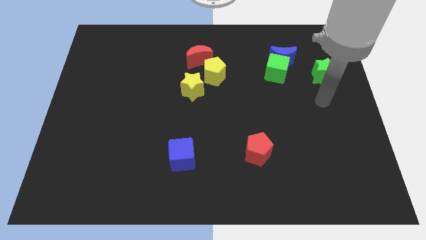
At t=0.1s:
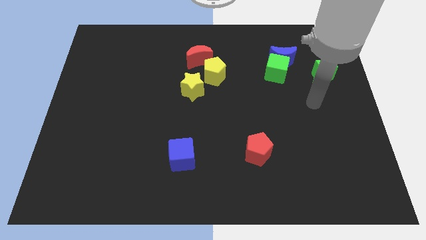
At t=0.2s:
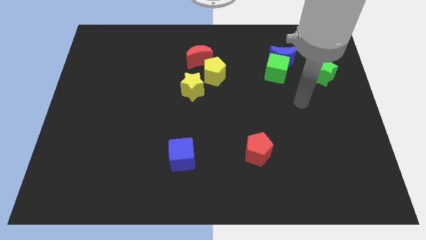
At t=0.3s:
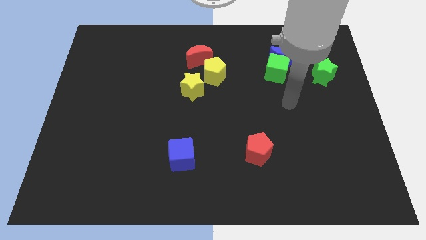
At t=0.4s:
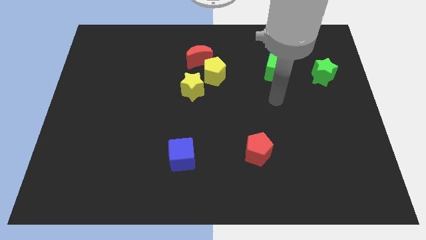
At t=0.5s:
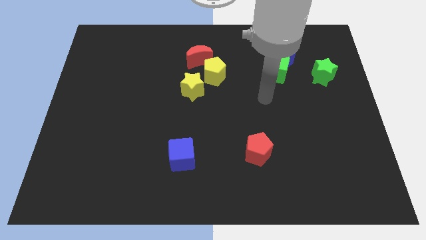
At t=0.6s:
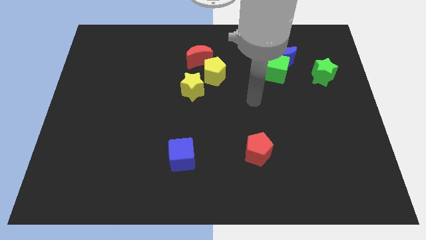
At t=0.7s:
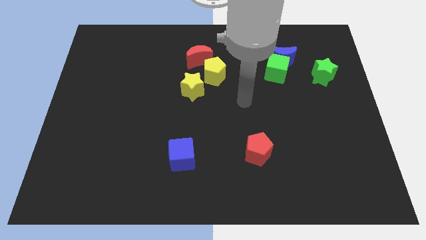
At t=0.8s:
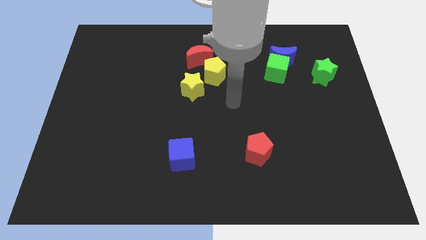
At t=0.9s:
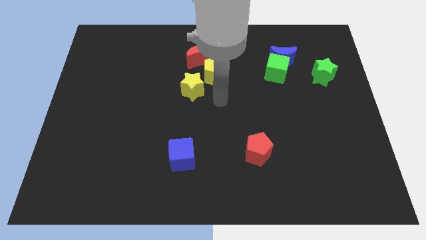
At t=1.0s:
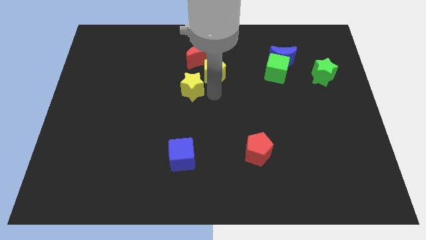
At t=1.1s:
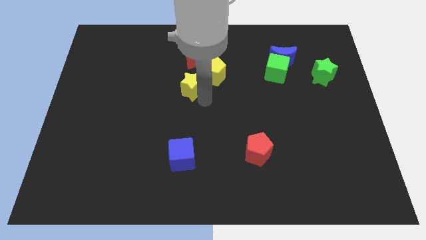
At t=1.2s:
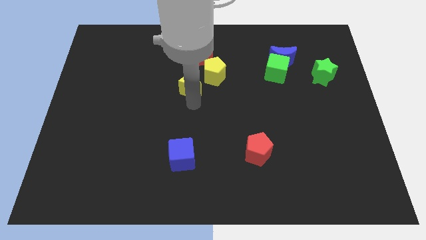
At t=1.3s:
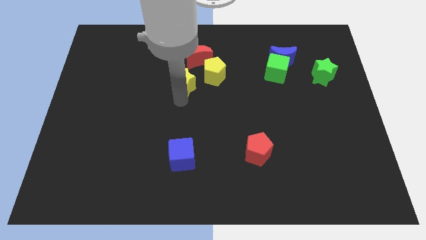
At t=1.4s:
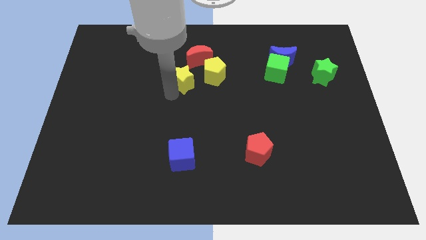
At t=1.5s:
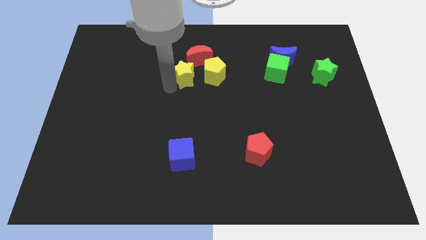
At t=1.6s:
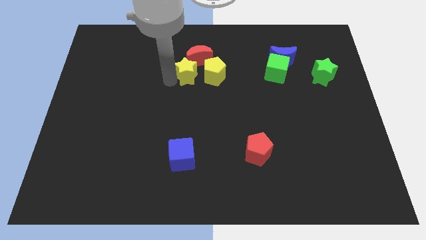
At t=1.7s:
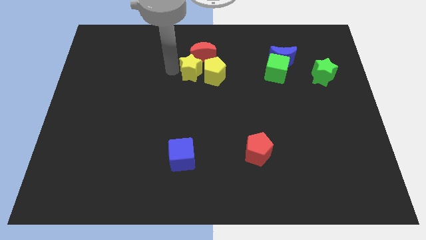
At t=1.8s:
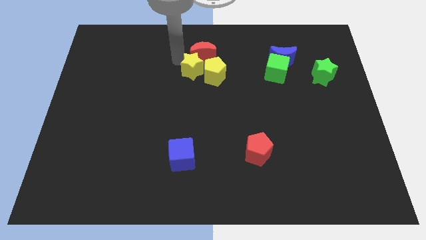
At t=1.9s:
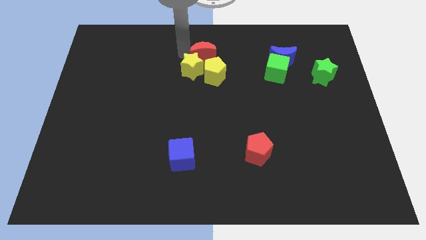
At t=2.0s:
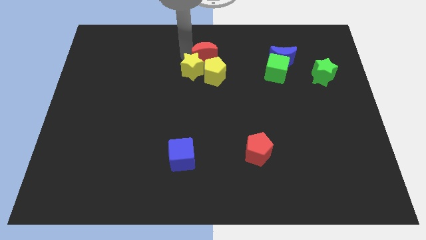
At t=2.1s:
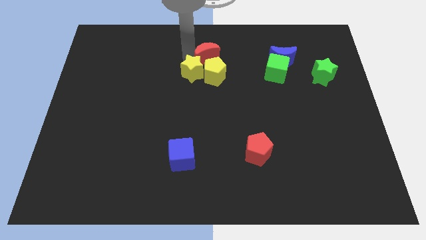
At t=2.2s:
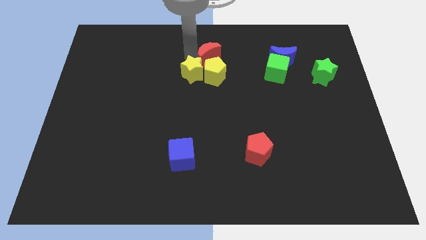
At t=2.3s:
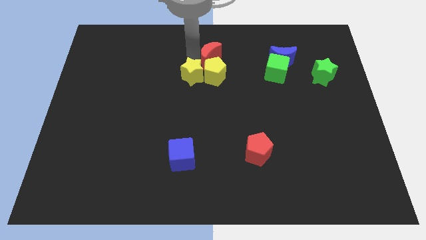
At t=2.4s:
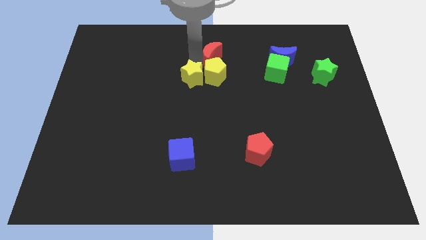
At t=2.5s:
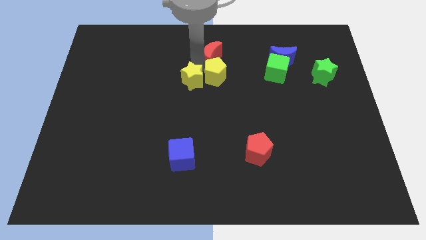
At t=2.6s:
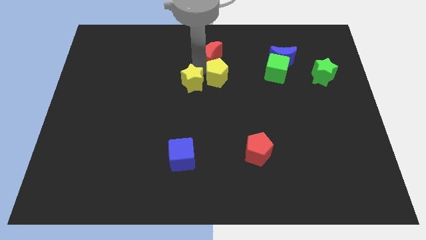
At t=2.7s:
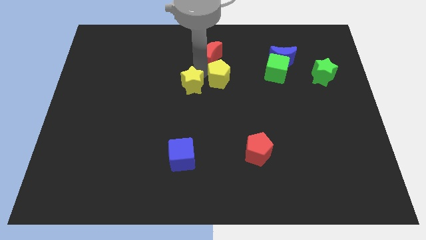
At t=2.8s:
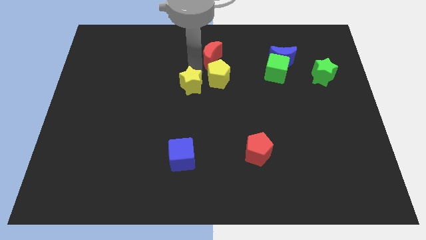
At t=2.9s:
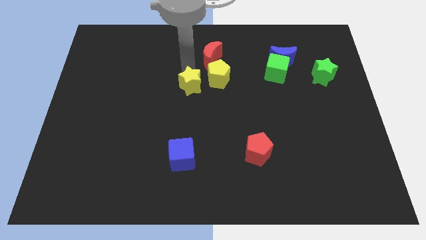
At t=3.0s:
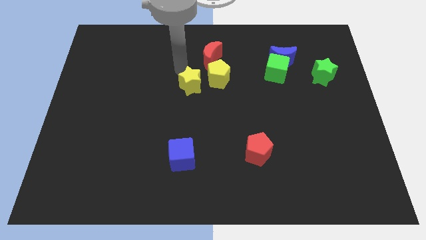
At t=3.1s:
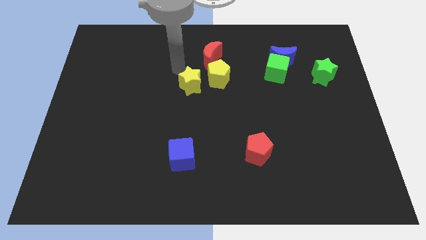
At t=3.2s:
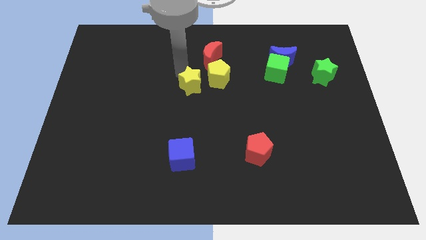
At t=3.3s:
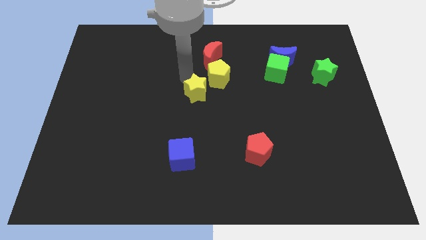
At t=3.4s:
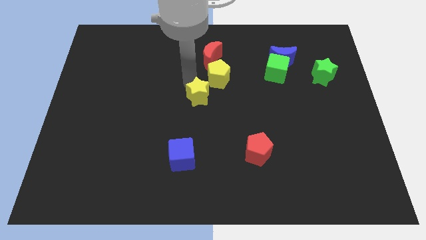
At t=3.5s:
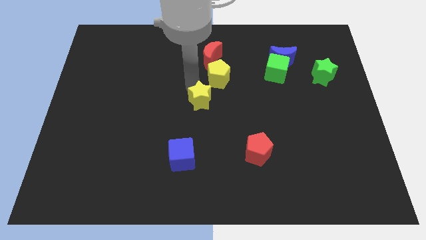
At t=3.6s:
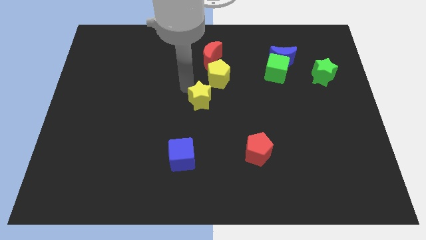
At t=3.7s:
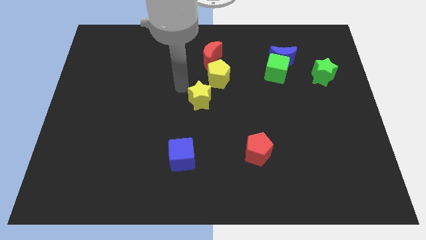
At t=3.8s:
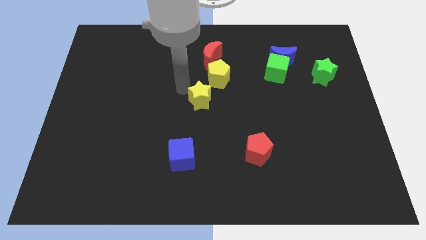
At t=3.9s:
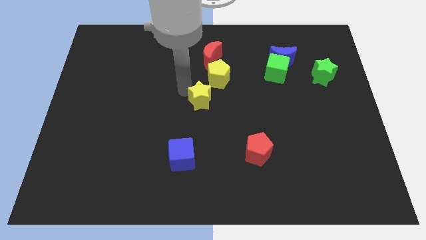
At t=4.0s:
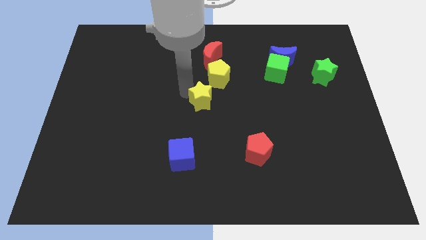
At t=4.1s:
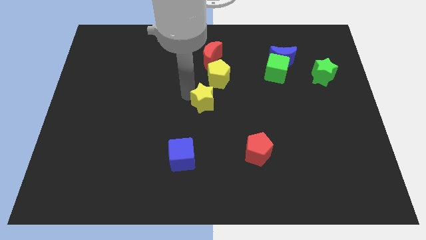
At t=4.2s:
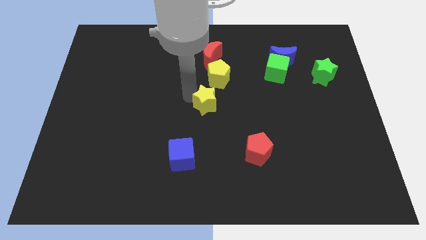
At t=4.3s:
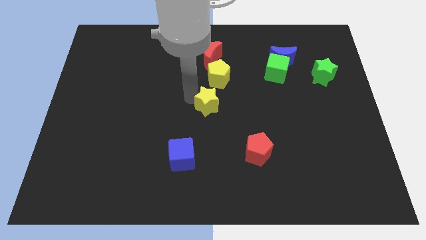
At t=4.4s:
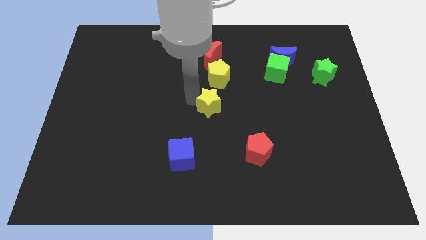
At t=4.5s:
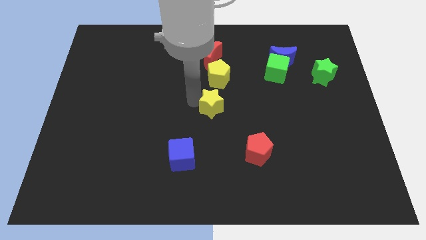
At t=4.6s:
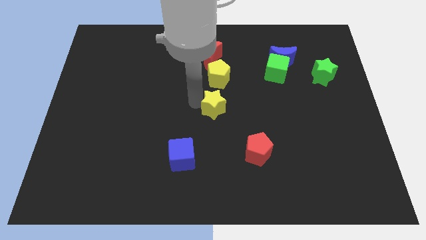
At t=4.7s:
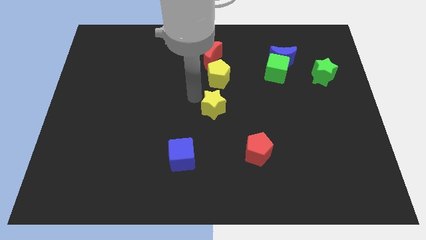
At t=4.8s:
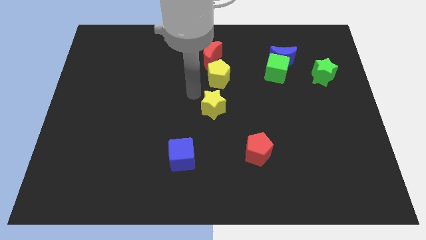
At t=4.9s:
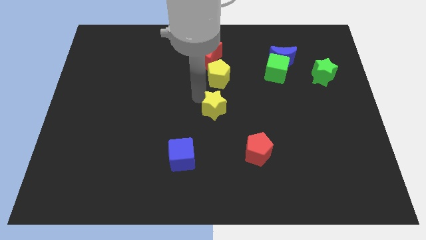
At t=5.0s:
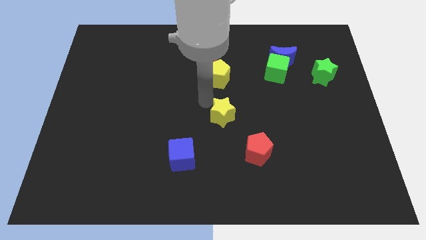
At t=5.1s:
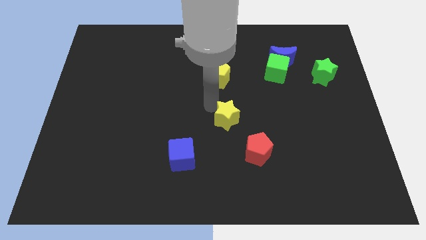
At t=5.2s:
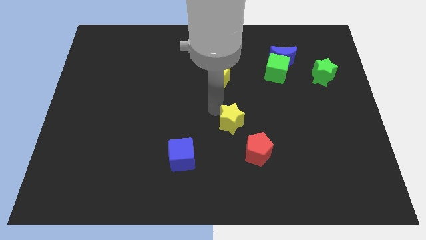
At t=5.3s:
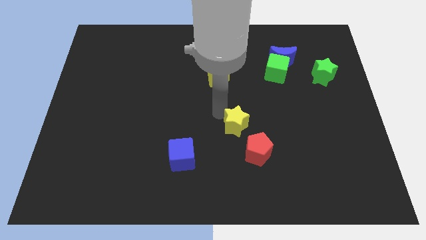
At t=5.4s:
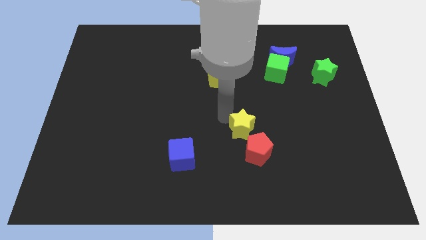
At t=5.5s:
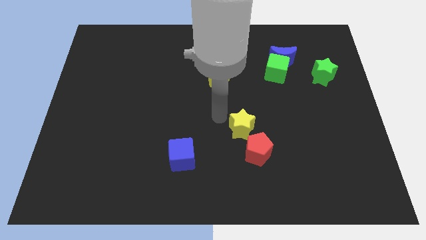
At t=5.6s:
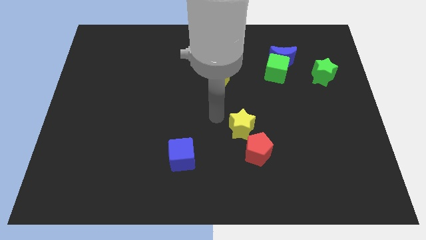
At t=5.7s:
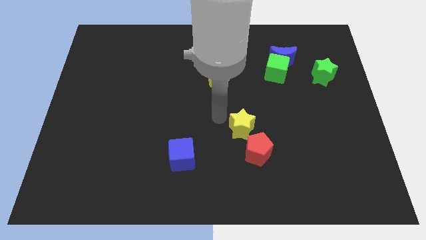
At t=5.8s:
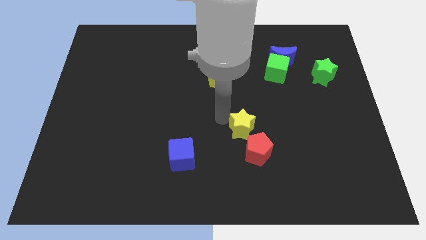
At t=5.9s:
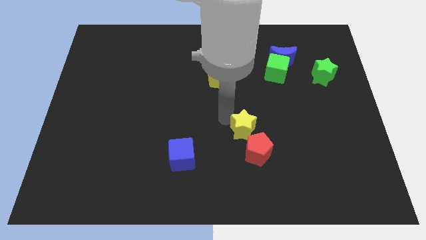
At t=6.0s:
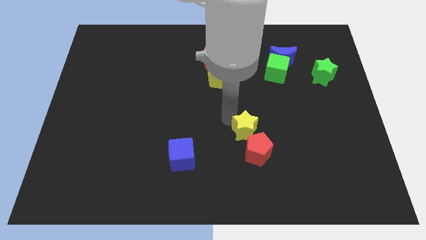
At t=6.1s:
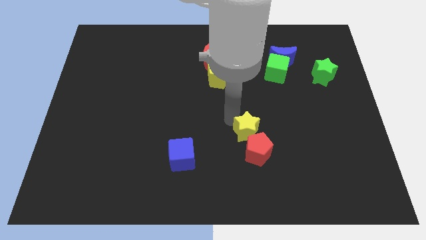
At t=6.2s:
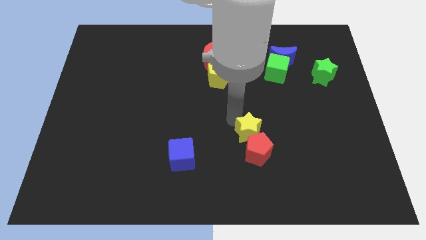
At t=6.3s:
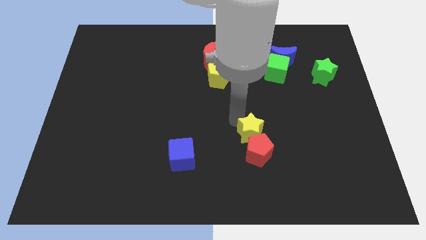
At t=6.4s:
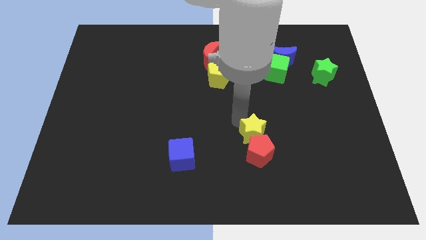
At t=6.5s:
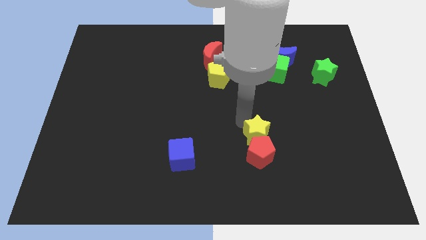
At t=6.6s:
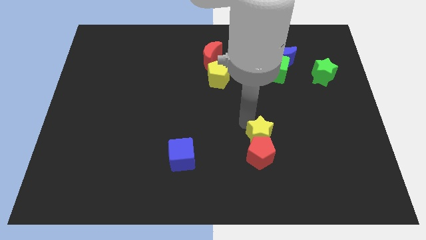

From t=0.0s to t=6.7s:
slide the yellow star downwards and right

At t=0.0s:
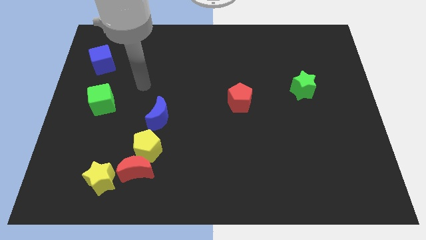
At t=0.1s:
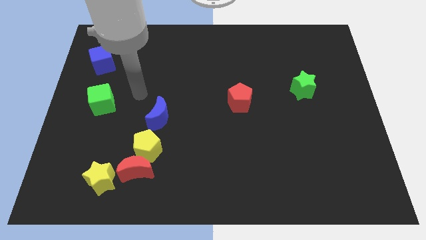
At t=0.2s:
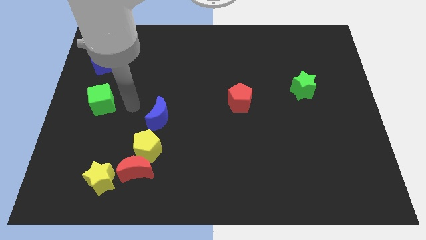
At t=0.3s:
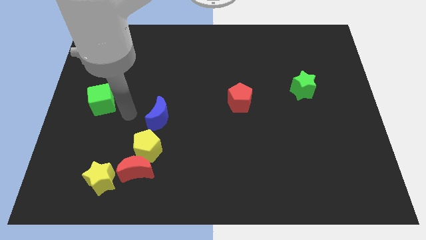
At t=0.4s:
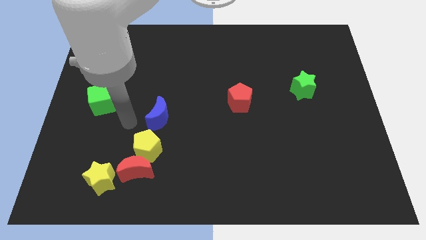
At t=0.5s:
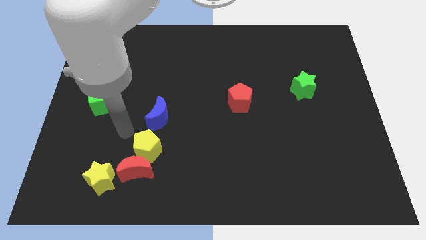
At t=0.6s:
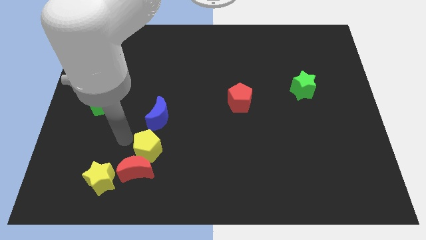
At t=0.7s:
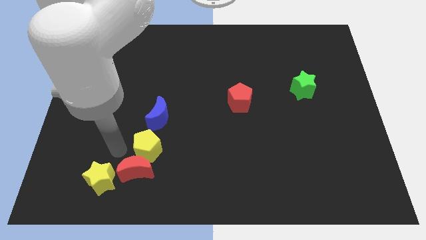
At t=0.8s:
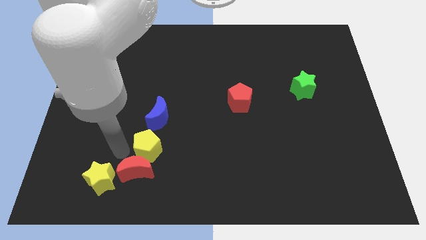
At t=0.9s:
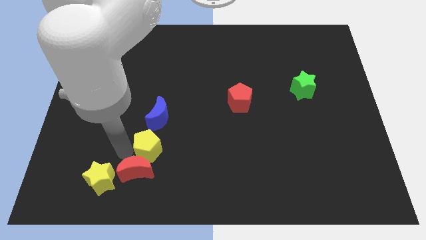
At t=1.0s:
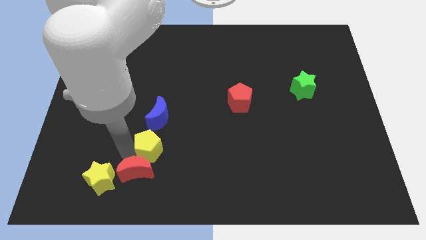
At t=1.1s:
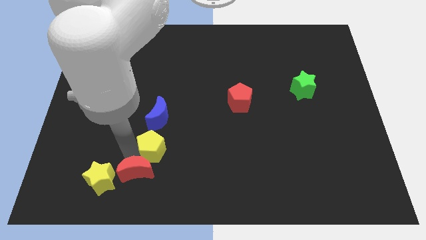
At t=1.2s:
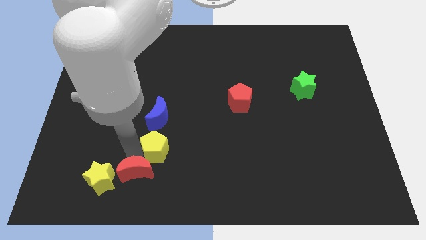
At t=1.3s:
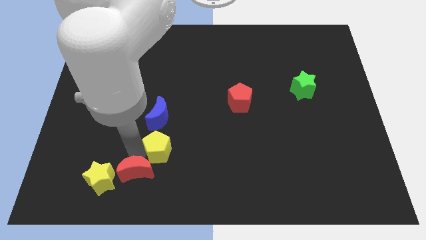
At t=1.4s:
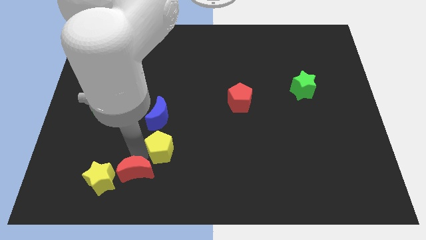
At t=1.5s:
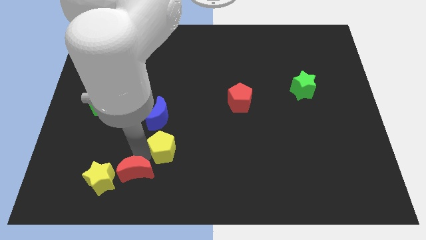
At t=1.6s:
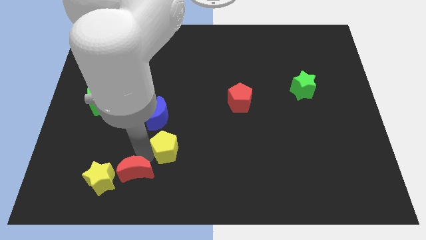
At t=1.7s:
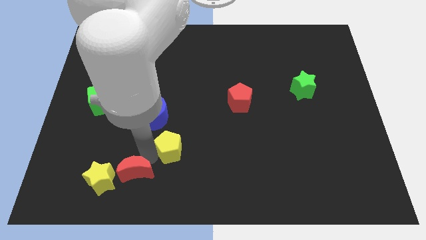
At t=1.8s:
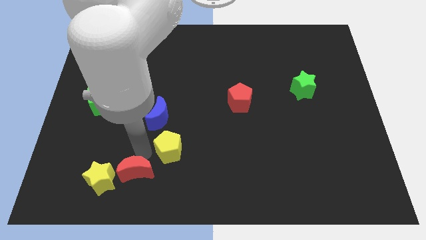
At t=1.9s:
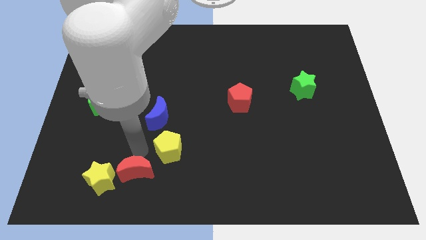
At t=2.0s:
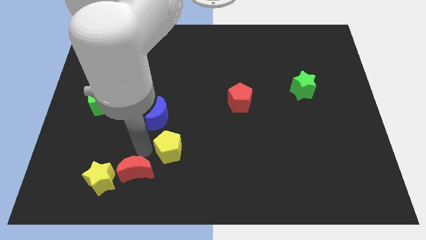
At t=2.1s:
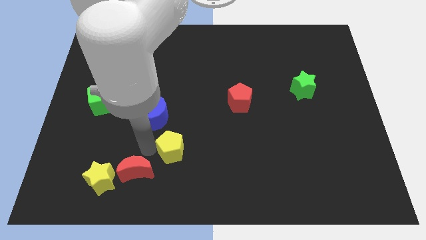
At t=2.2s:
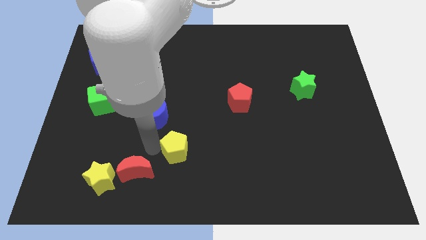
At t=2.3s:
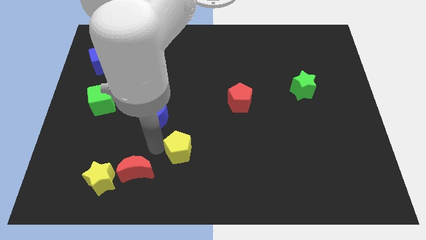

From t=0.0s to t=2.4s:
move the yellow pentagon right a little
